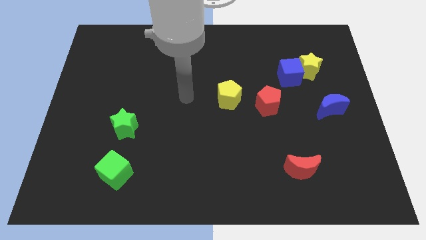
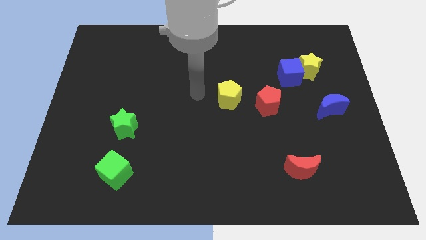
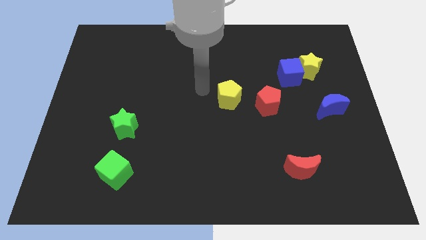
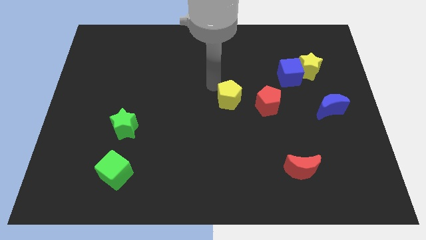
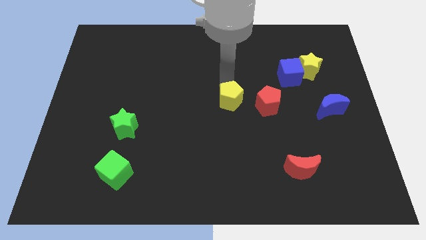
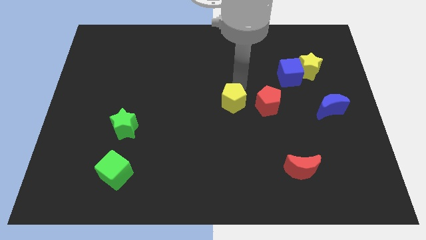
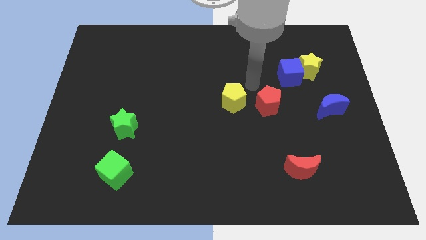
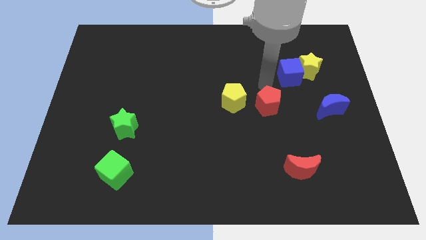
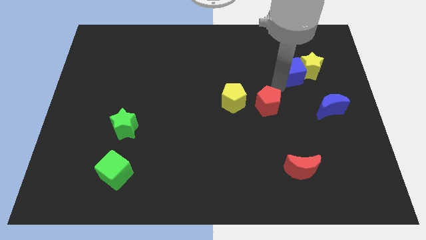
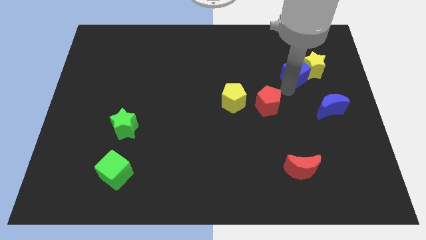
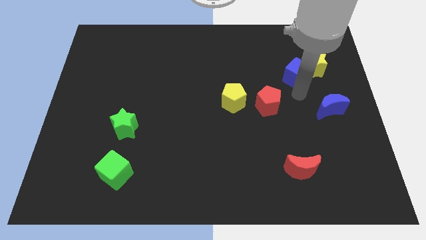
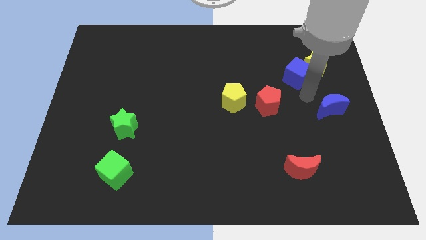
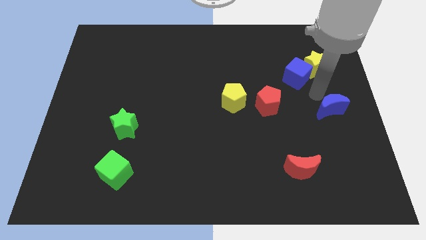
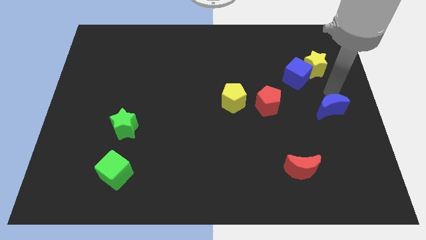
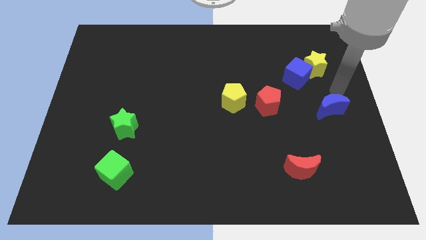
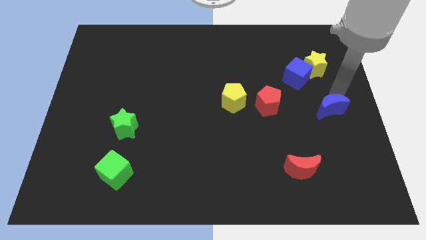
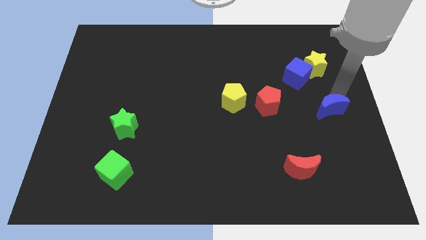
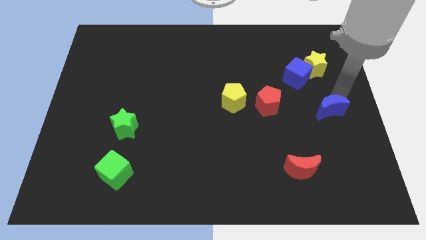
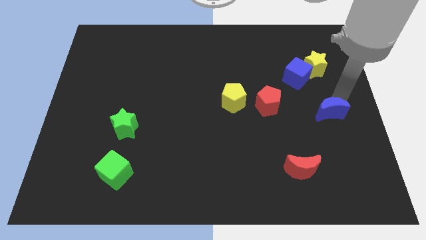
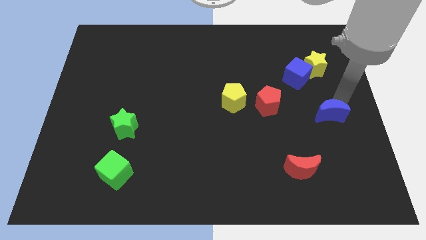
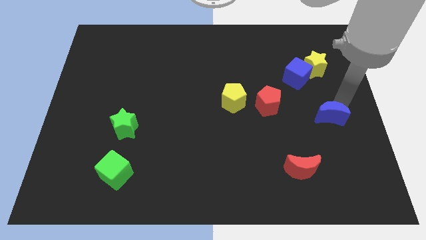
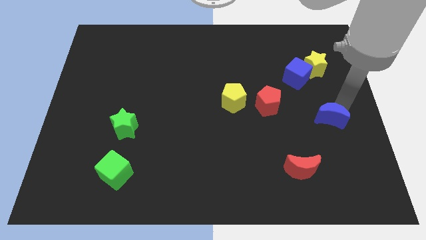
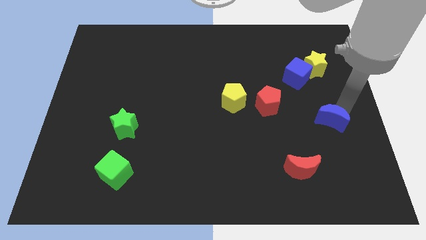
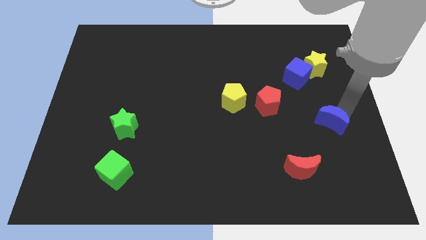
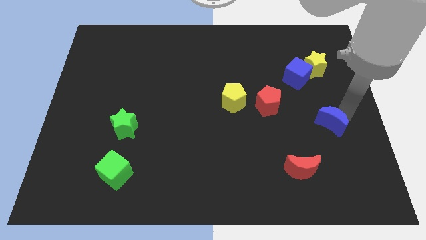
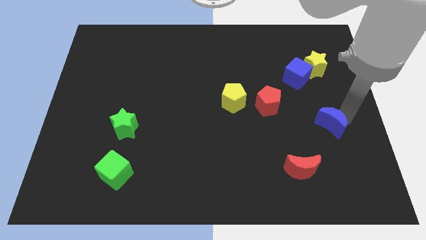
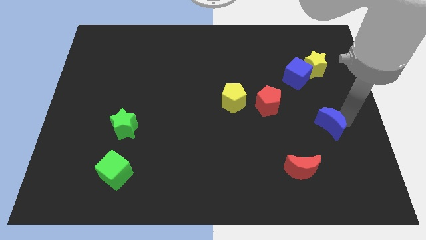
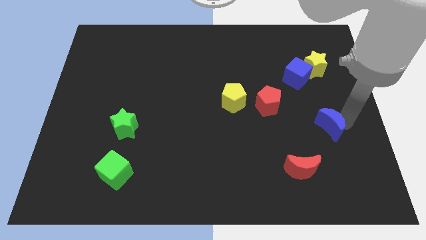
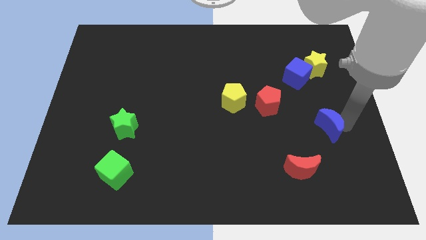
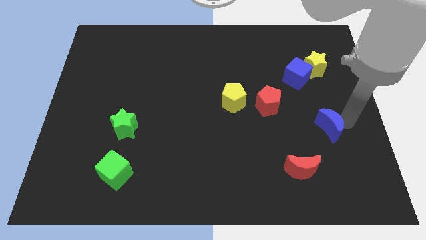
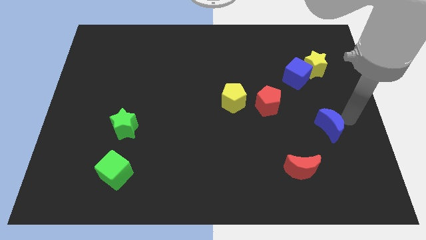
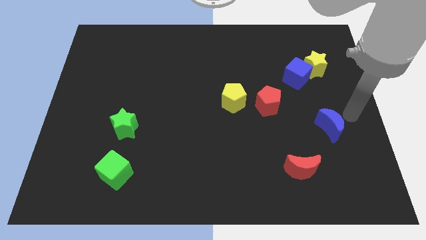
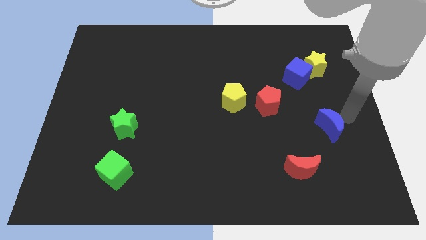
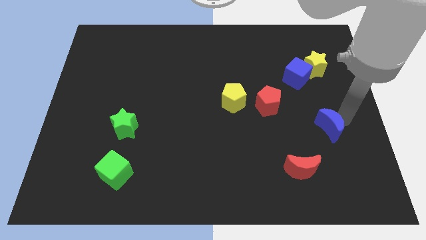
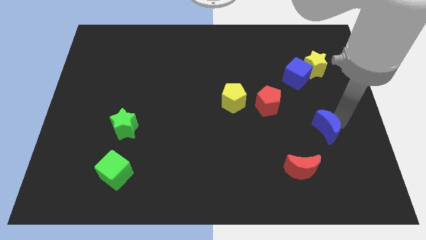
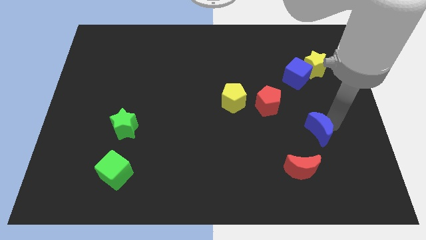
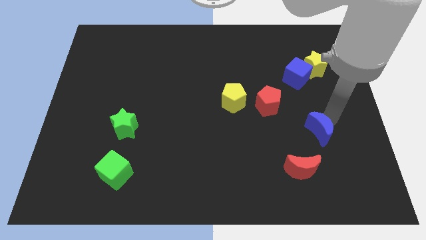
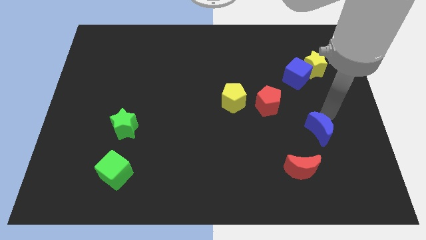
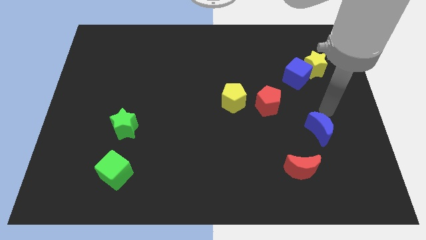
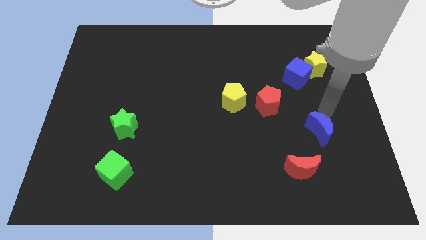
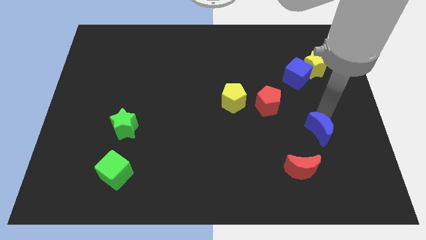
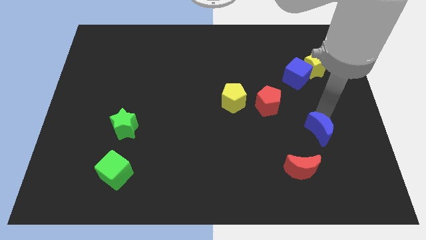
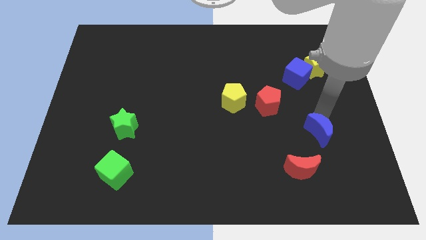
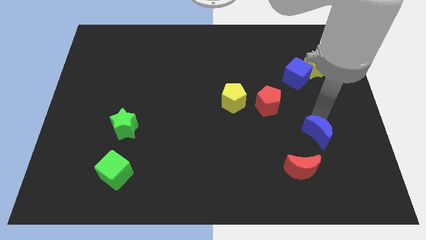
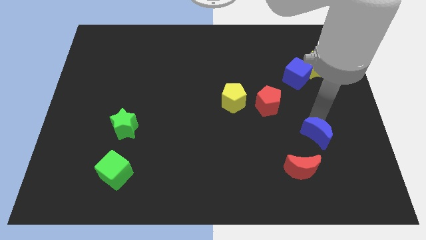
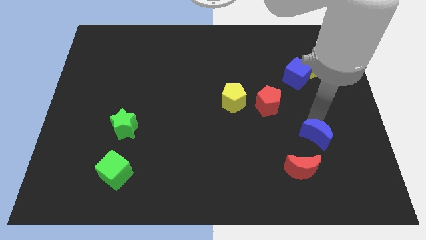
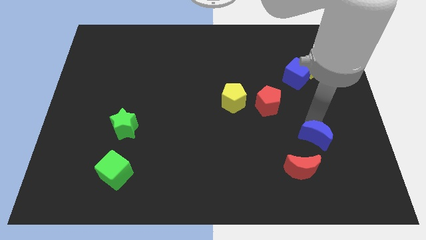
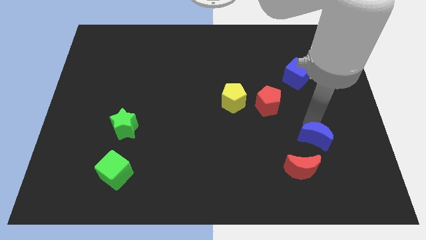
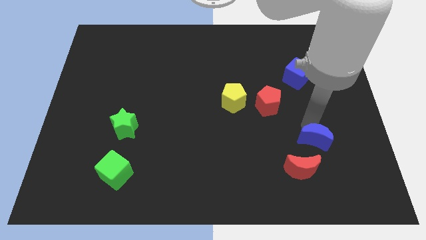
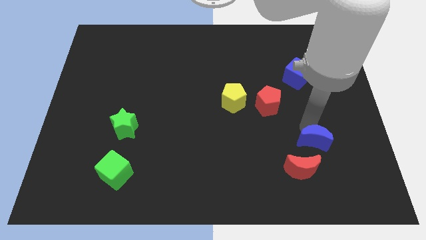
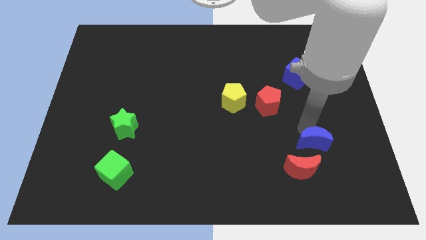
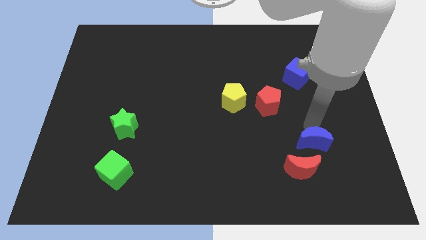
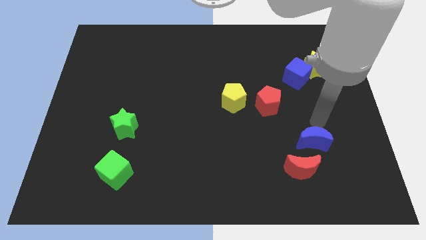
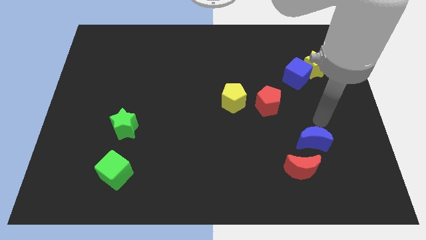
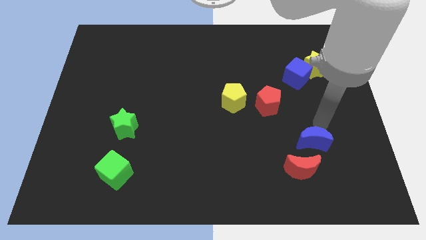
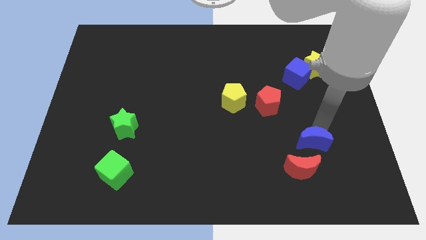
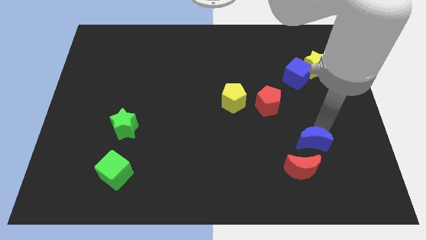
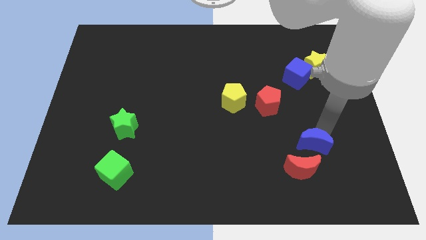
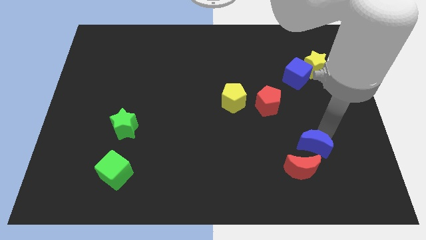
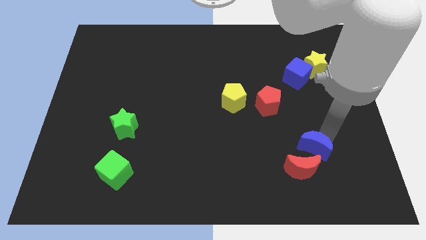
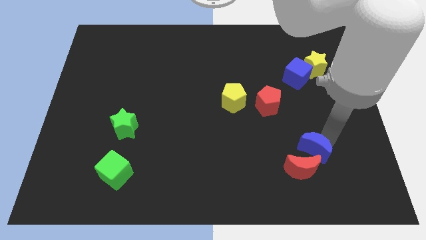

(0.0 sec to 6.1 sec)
put the blue moon next to the red moon

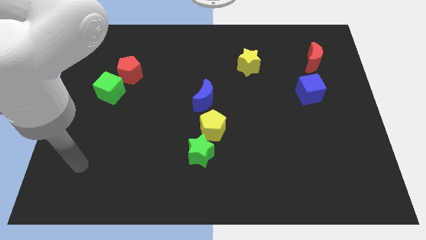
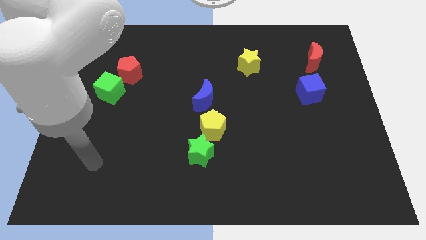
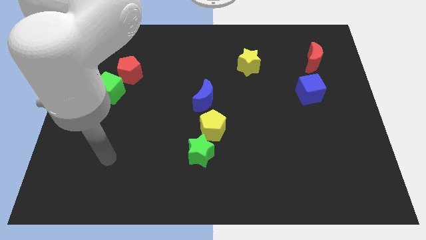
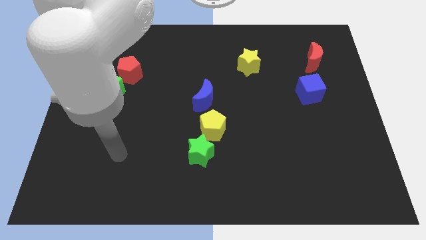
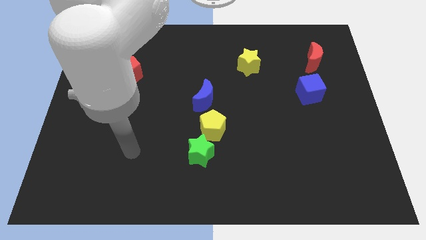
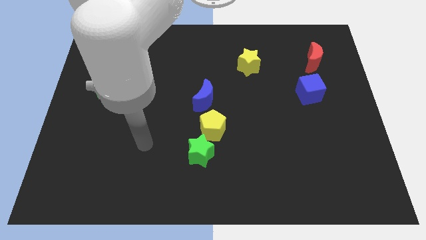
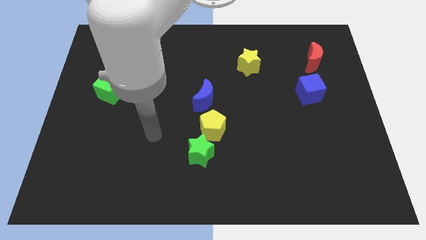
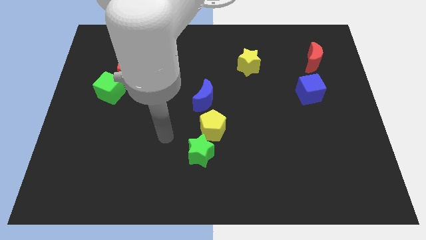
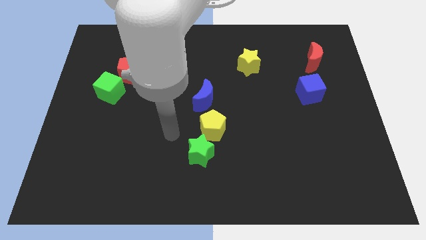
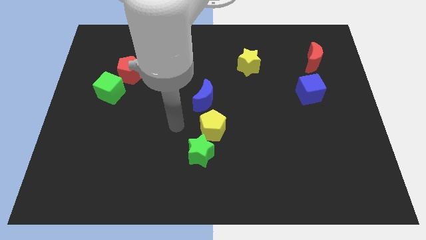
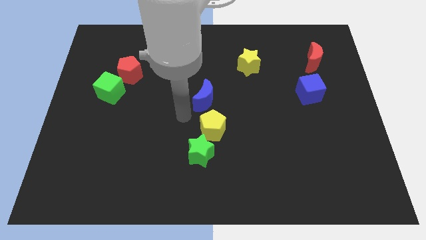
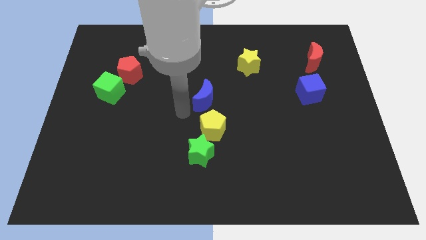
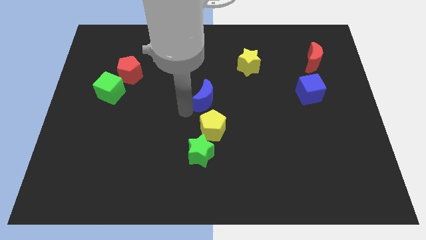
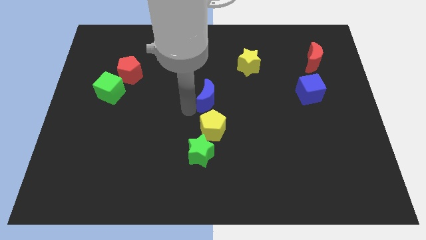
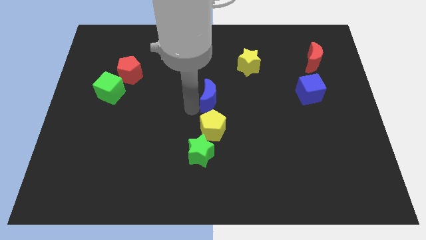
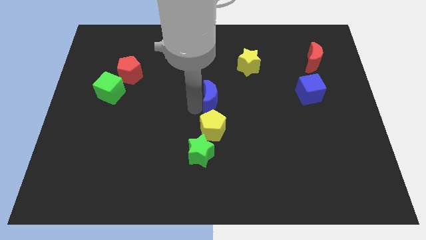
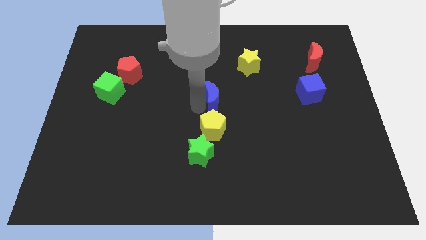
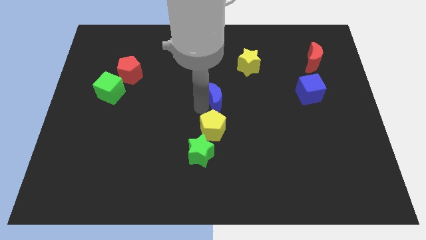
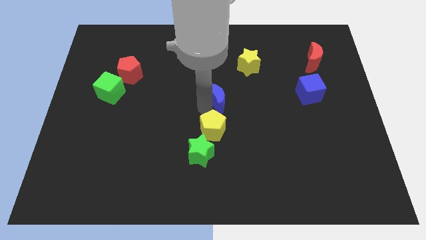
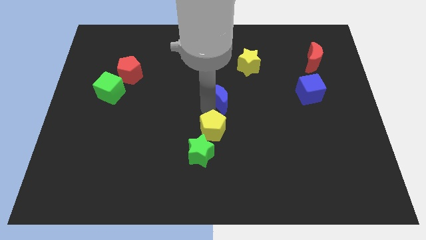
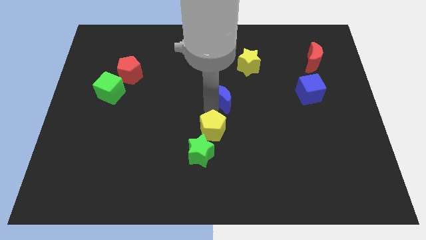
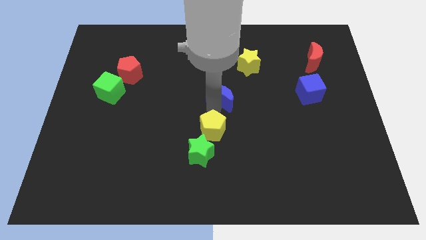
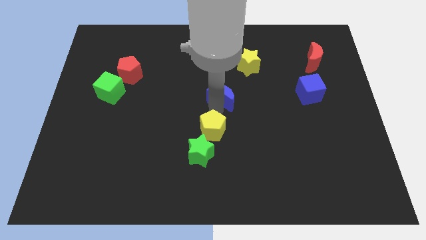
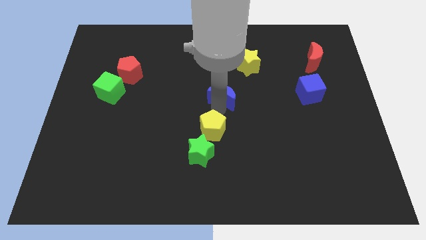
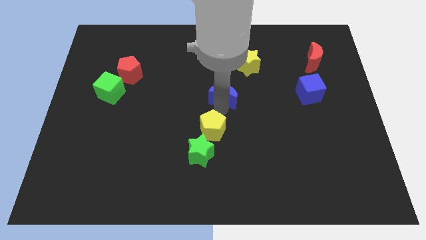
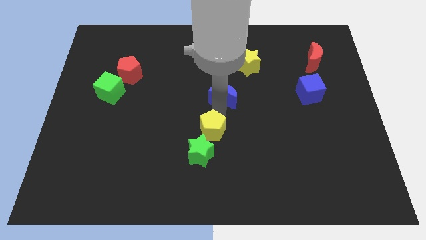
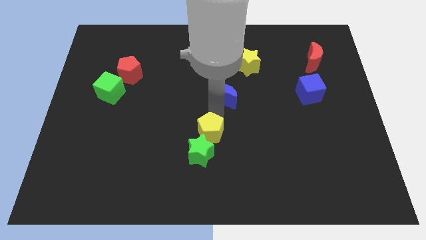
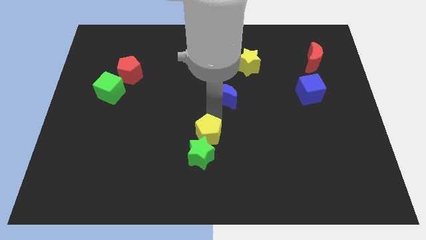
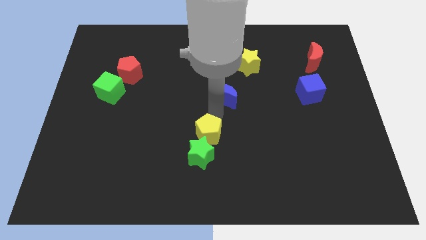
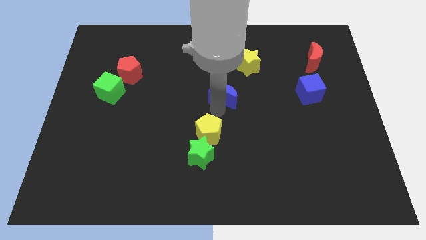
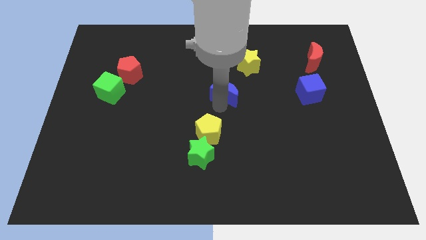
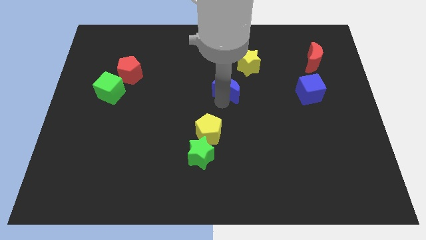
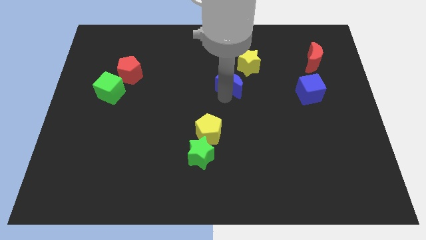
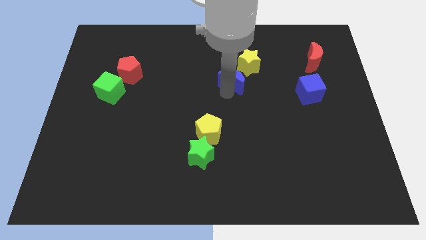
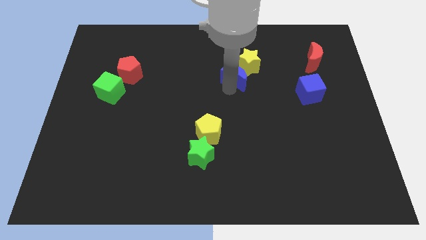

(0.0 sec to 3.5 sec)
put the blue moon close to the yellow star
